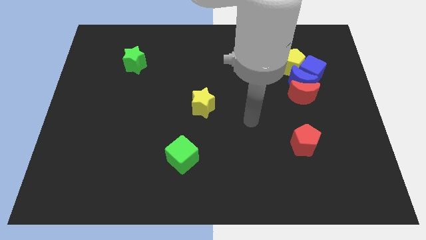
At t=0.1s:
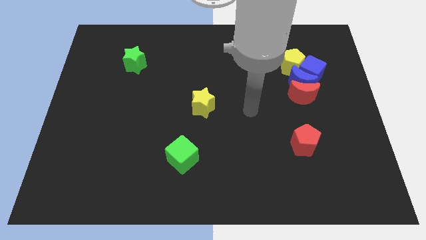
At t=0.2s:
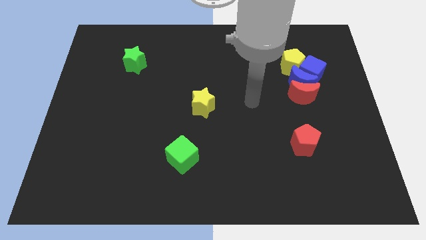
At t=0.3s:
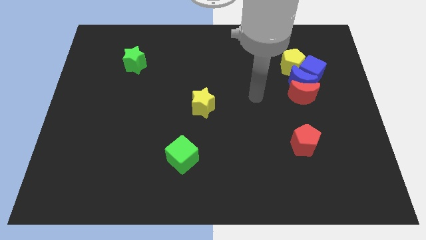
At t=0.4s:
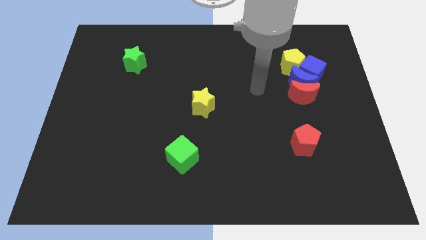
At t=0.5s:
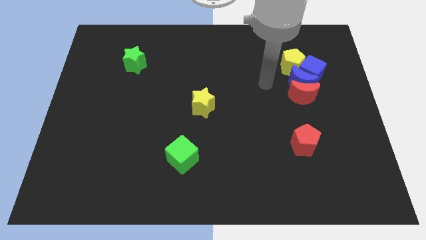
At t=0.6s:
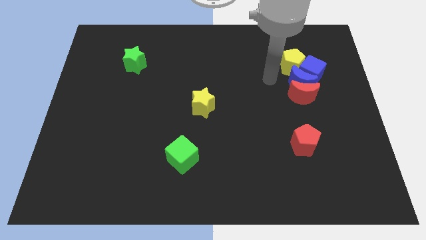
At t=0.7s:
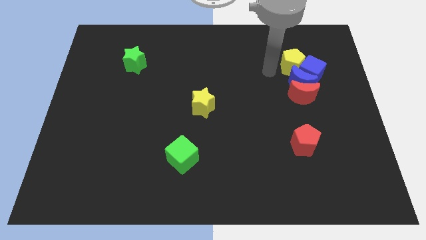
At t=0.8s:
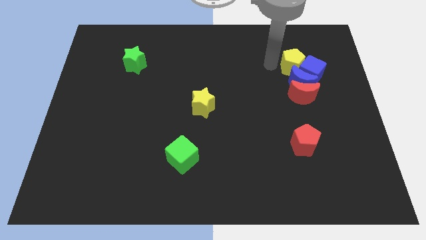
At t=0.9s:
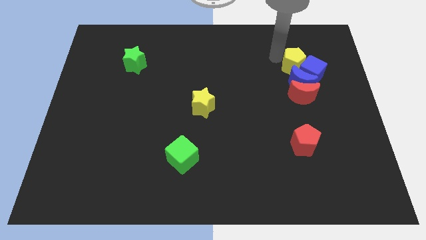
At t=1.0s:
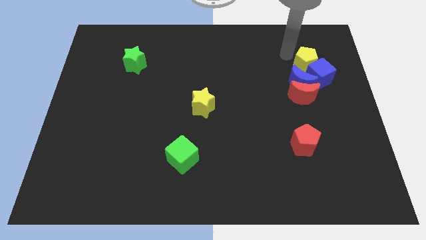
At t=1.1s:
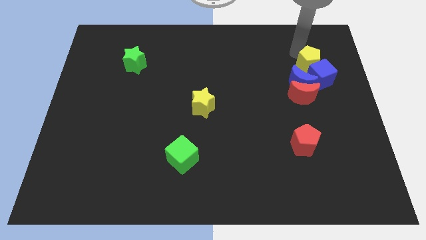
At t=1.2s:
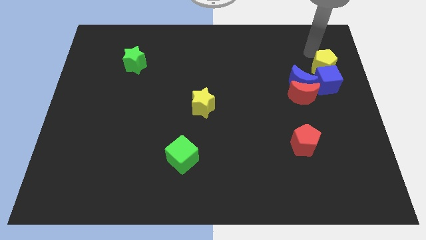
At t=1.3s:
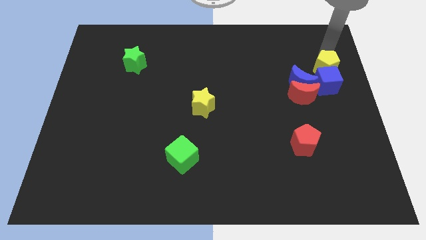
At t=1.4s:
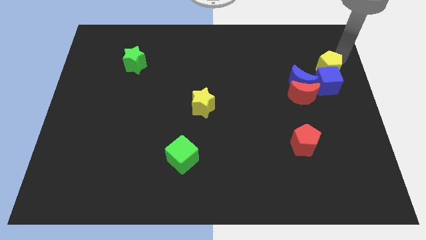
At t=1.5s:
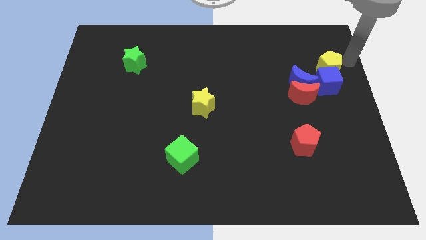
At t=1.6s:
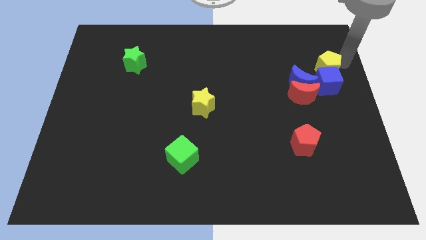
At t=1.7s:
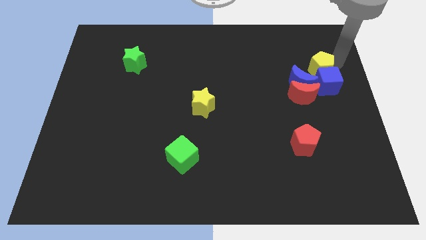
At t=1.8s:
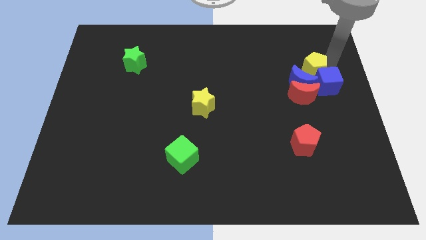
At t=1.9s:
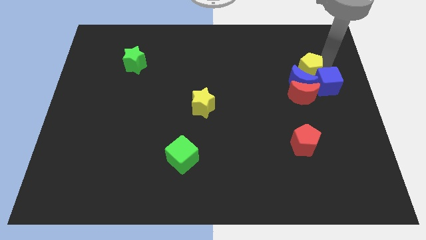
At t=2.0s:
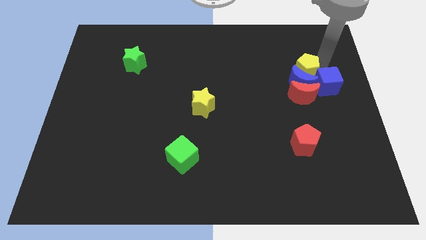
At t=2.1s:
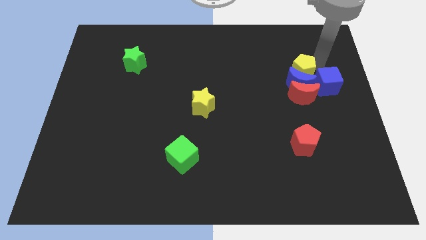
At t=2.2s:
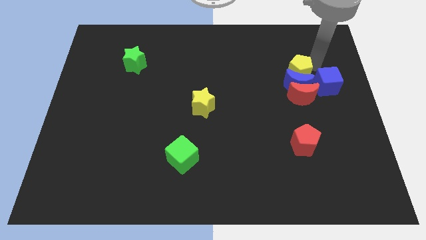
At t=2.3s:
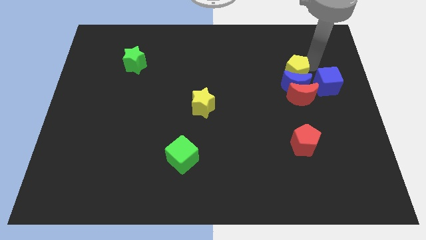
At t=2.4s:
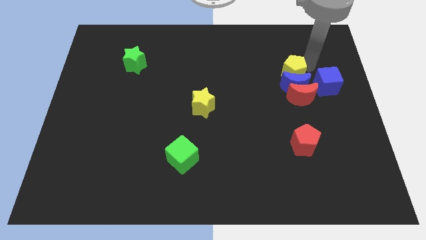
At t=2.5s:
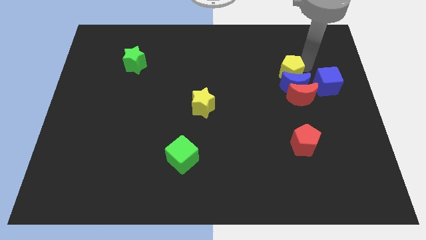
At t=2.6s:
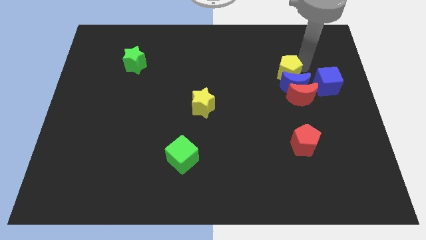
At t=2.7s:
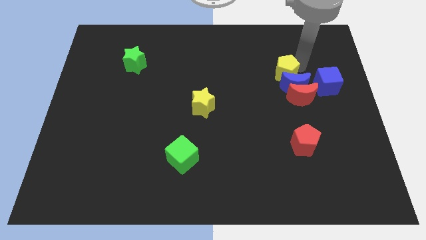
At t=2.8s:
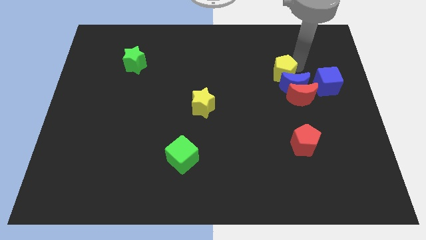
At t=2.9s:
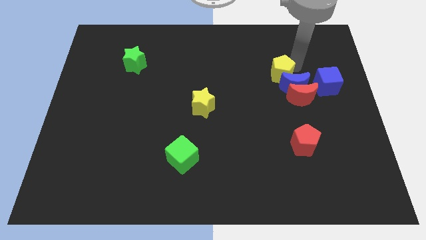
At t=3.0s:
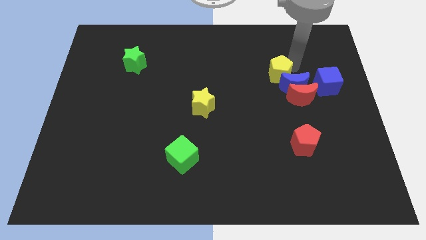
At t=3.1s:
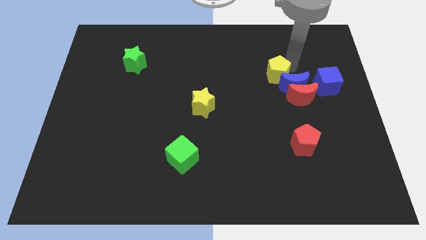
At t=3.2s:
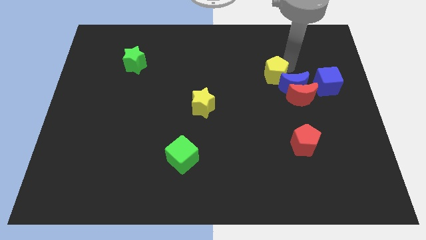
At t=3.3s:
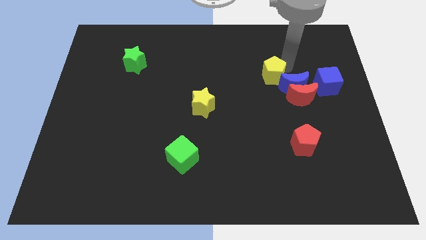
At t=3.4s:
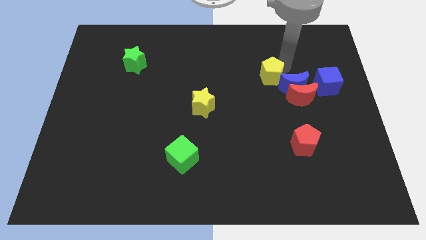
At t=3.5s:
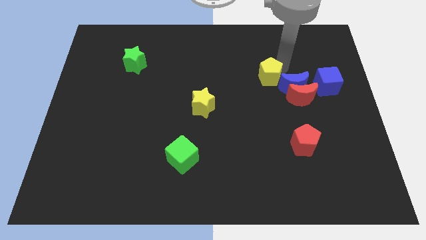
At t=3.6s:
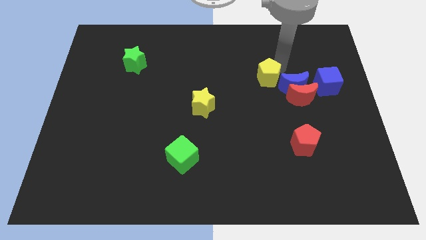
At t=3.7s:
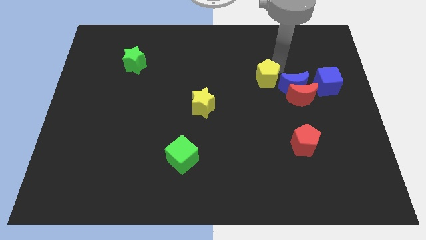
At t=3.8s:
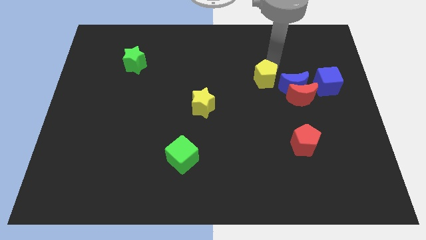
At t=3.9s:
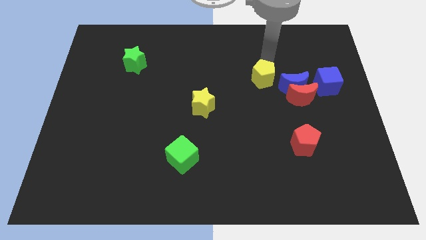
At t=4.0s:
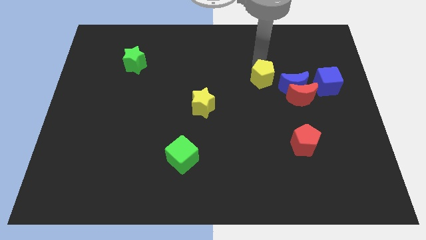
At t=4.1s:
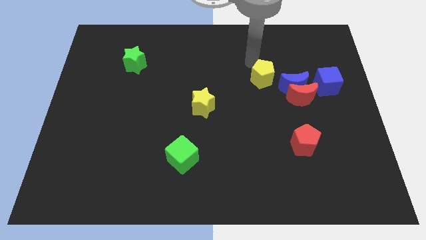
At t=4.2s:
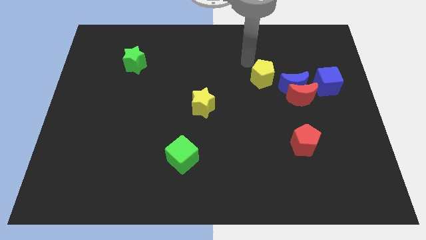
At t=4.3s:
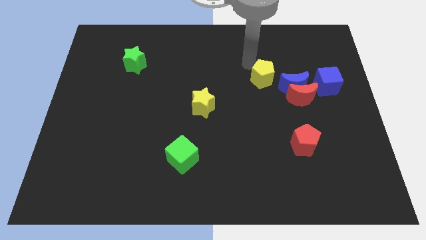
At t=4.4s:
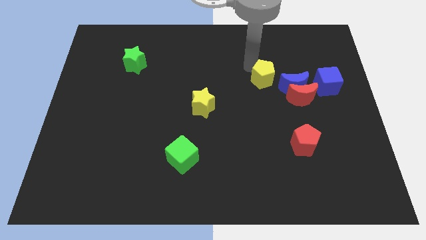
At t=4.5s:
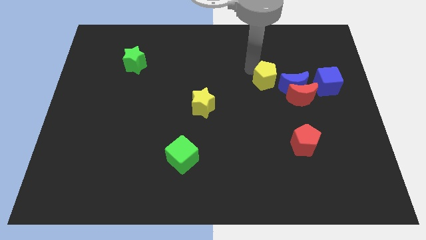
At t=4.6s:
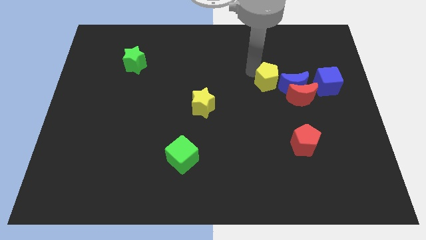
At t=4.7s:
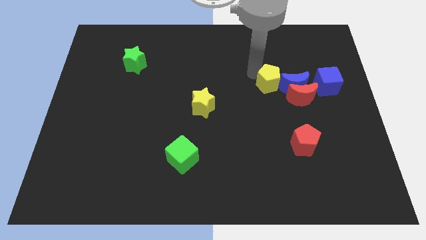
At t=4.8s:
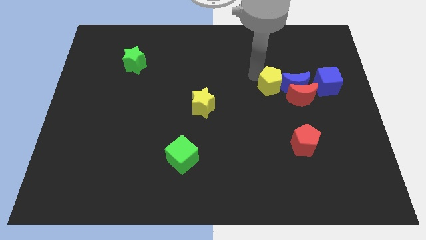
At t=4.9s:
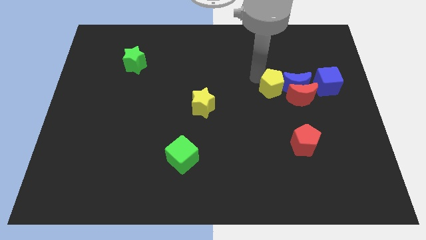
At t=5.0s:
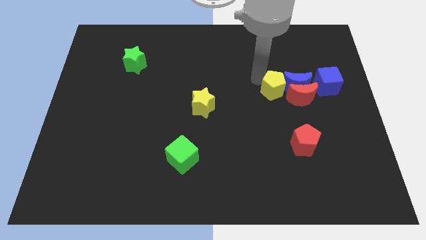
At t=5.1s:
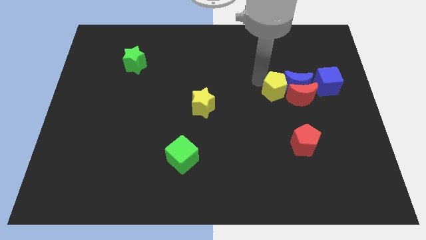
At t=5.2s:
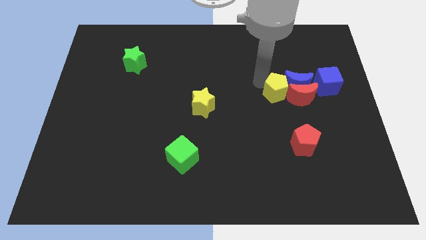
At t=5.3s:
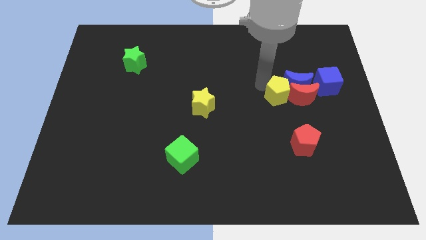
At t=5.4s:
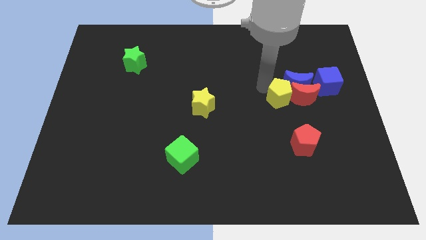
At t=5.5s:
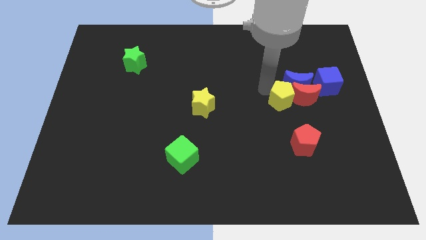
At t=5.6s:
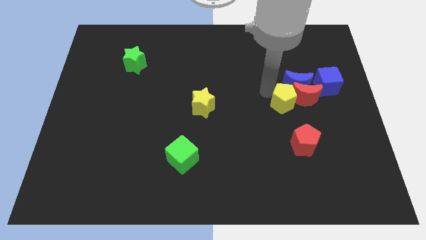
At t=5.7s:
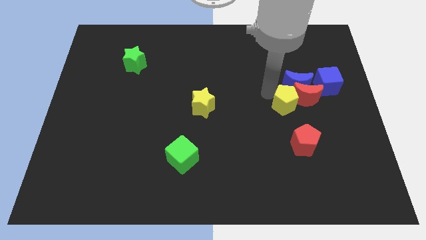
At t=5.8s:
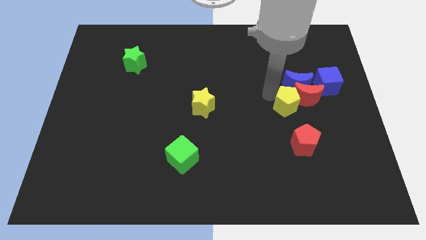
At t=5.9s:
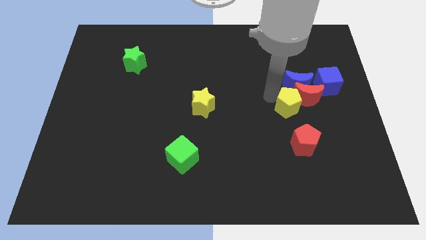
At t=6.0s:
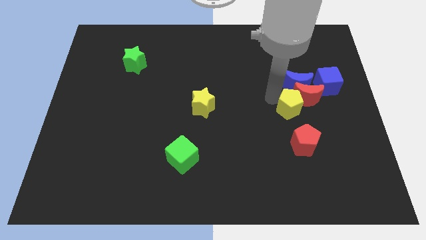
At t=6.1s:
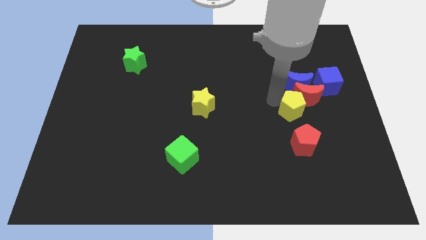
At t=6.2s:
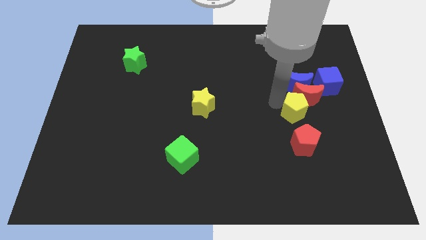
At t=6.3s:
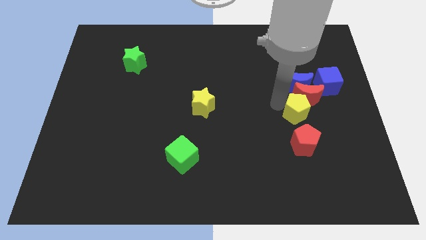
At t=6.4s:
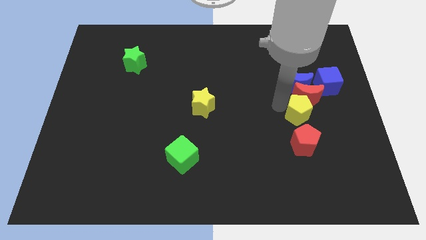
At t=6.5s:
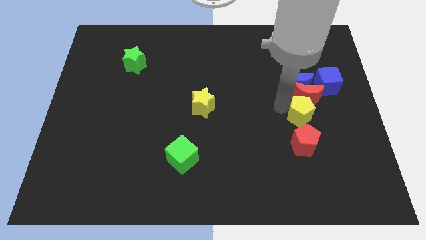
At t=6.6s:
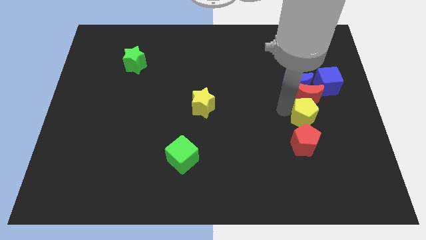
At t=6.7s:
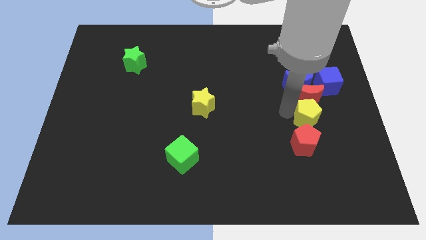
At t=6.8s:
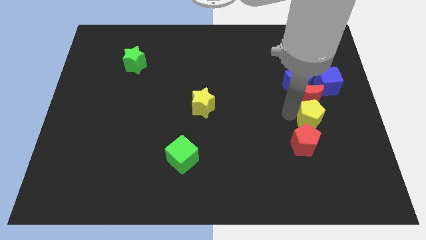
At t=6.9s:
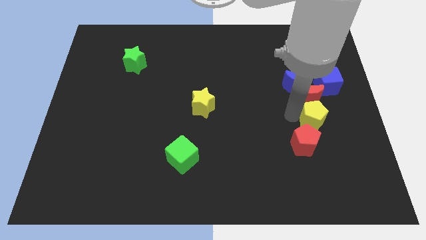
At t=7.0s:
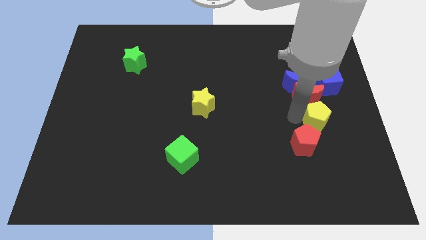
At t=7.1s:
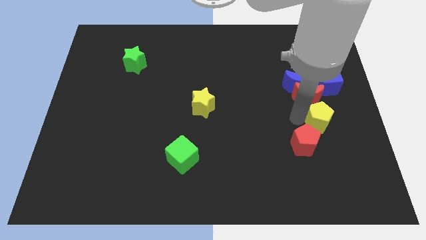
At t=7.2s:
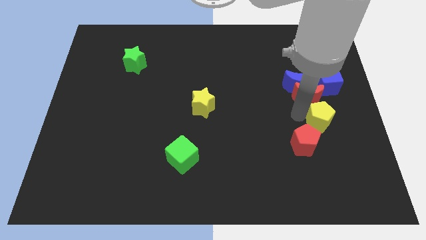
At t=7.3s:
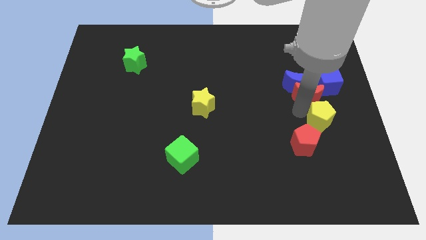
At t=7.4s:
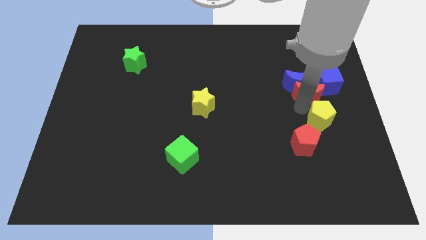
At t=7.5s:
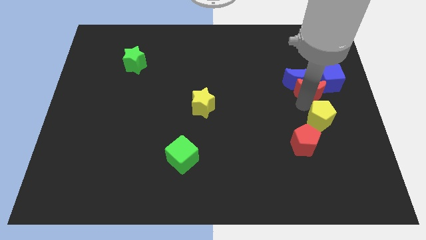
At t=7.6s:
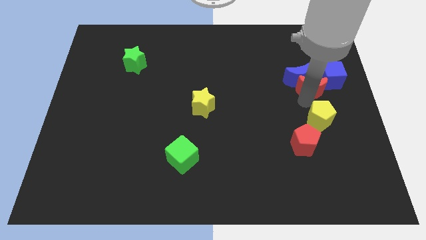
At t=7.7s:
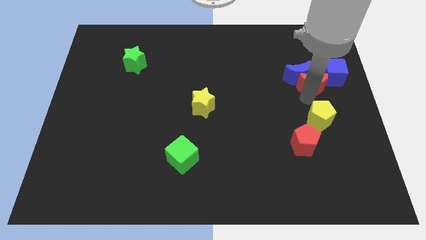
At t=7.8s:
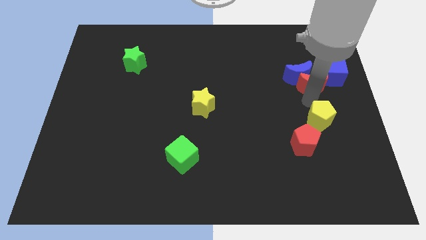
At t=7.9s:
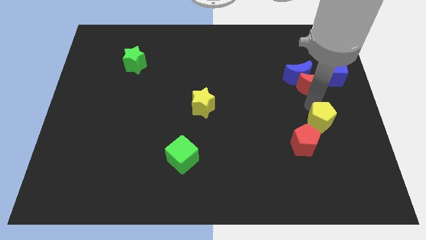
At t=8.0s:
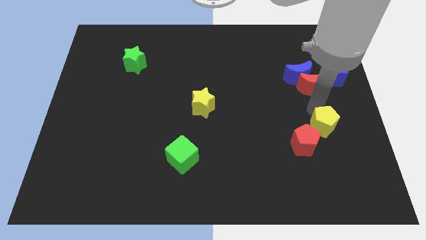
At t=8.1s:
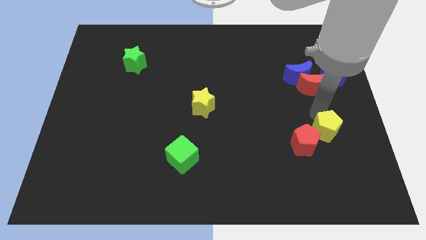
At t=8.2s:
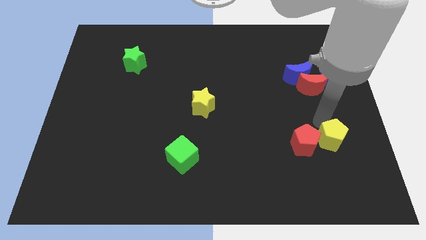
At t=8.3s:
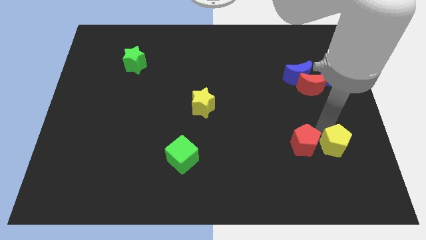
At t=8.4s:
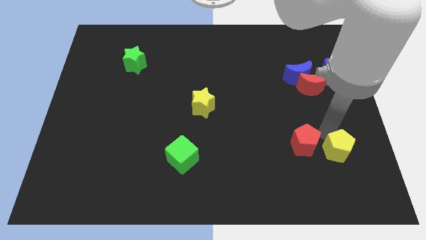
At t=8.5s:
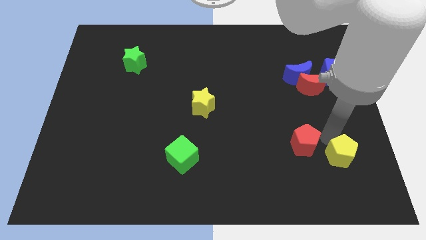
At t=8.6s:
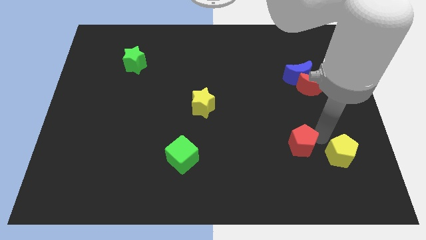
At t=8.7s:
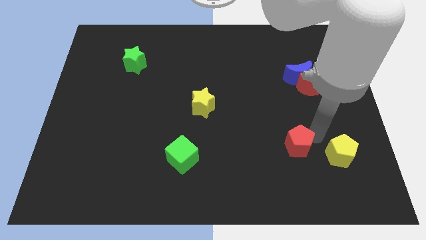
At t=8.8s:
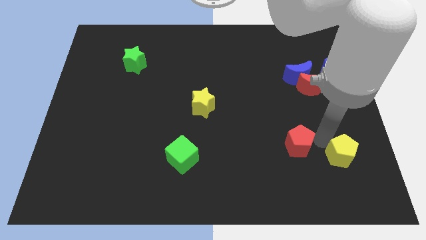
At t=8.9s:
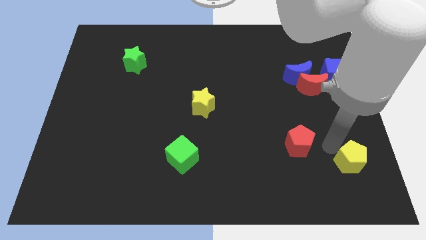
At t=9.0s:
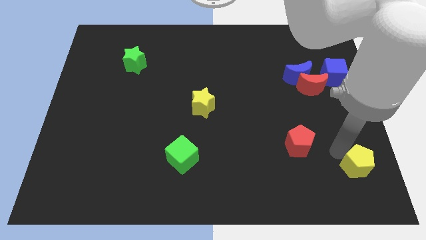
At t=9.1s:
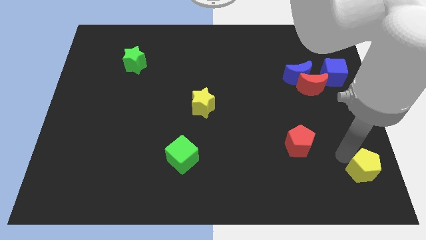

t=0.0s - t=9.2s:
put the yellow pentagon to the bottom right
